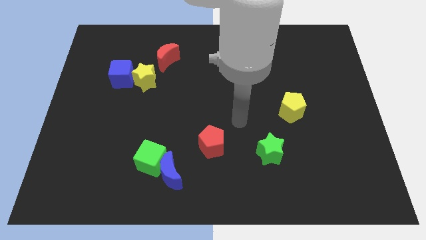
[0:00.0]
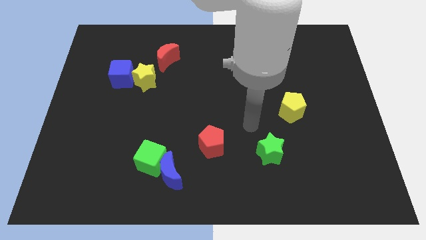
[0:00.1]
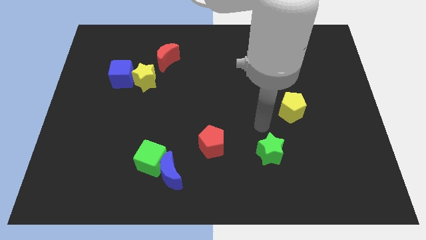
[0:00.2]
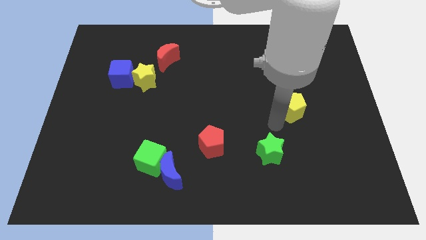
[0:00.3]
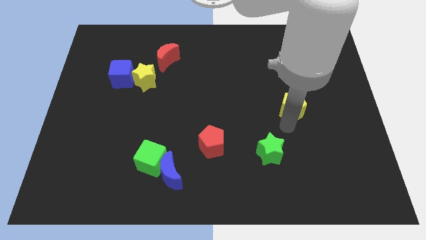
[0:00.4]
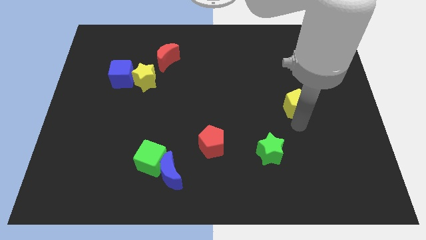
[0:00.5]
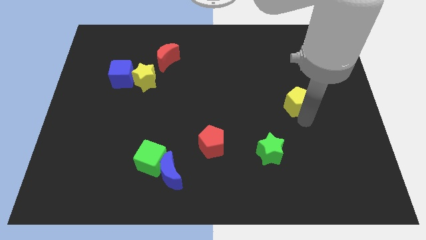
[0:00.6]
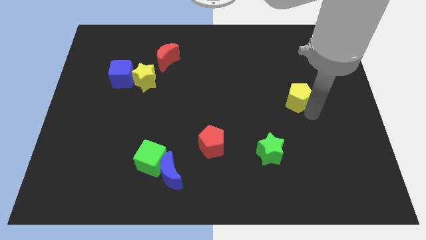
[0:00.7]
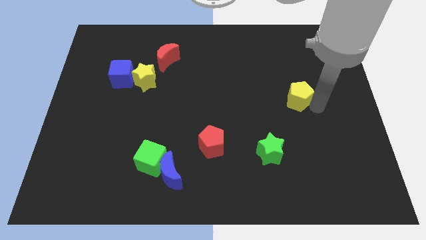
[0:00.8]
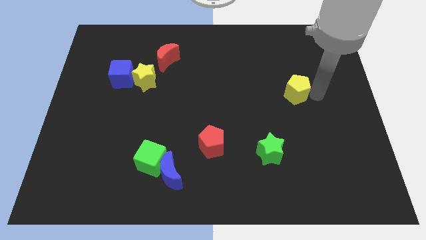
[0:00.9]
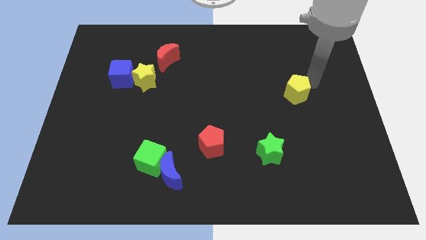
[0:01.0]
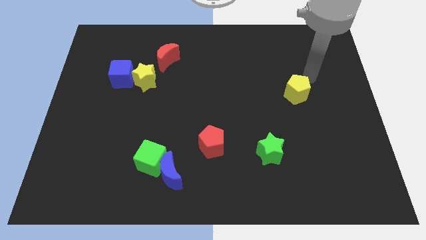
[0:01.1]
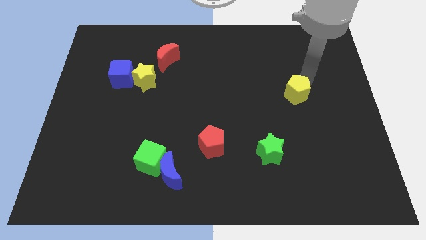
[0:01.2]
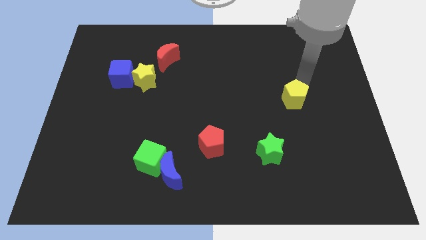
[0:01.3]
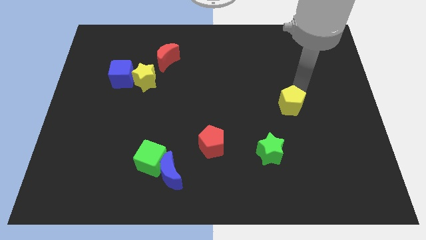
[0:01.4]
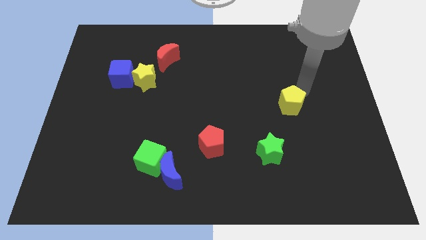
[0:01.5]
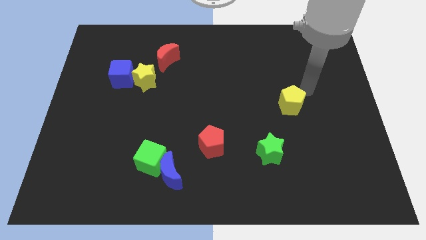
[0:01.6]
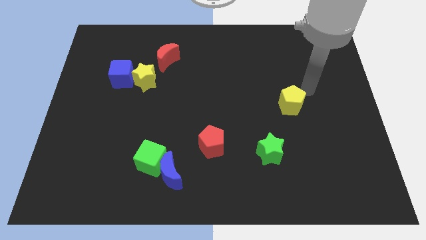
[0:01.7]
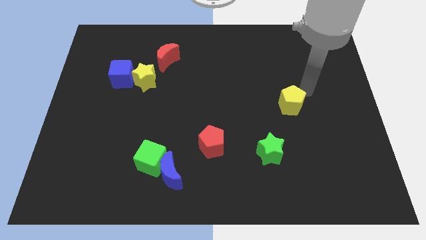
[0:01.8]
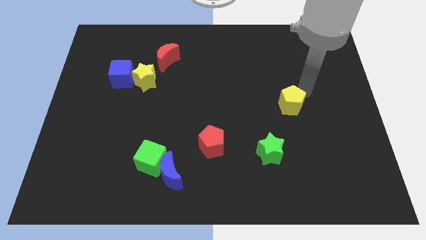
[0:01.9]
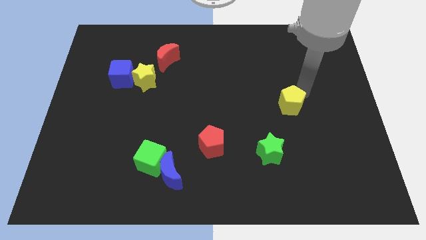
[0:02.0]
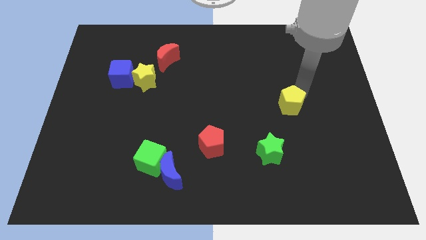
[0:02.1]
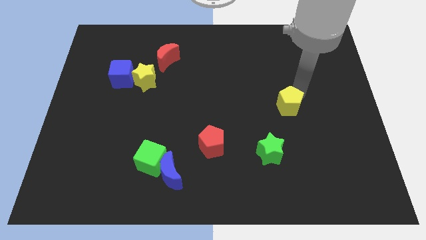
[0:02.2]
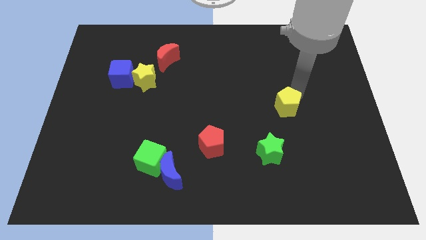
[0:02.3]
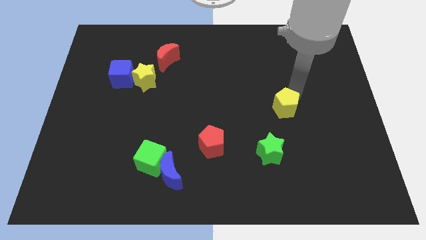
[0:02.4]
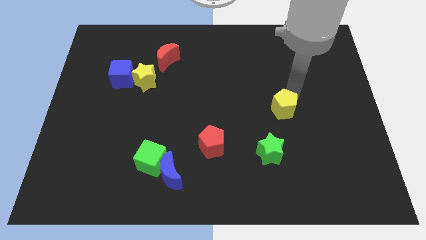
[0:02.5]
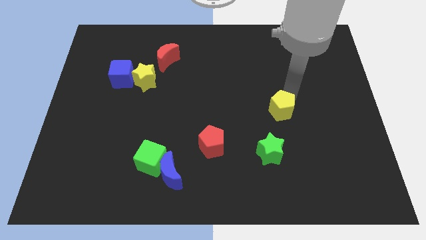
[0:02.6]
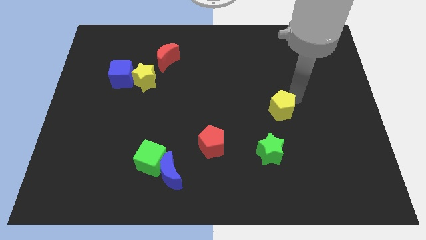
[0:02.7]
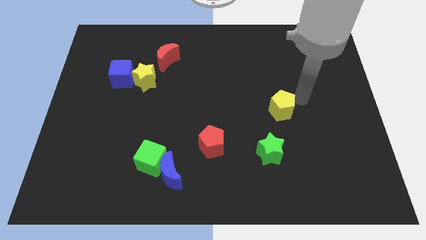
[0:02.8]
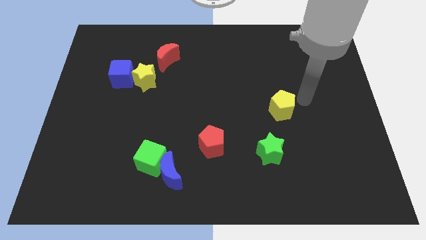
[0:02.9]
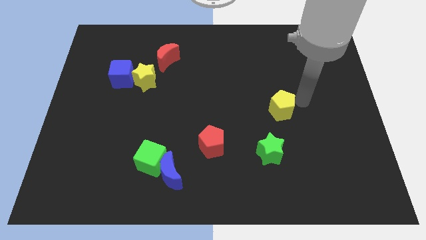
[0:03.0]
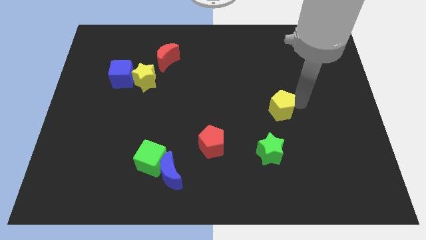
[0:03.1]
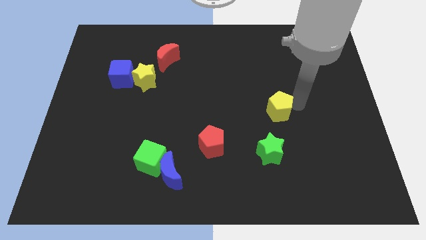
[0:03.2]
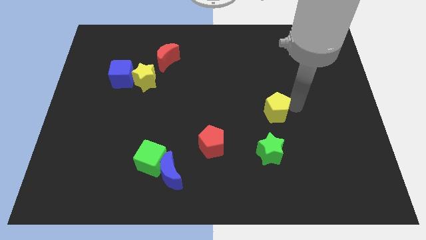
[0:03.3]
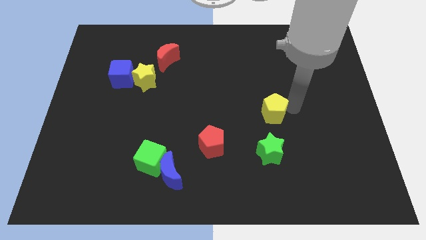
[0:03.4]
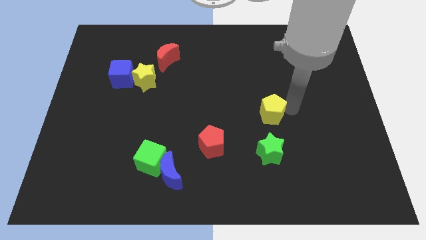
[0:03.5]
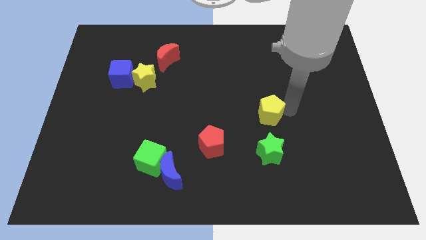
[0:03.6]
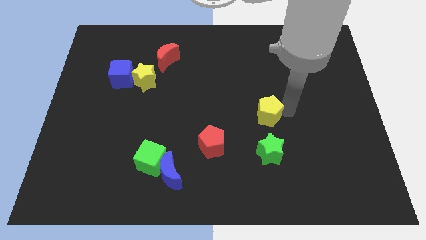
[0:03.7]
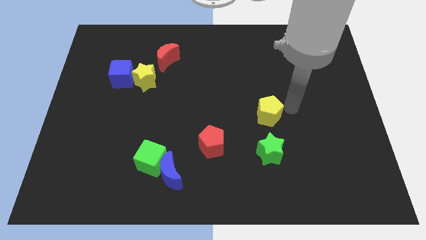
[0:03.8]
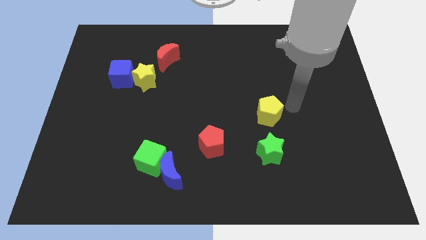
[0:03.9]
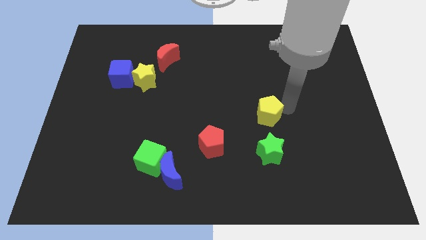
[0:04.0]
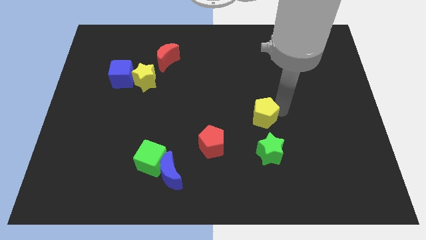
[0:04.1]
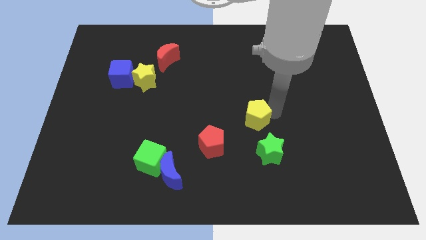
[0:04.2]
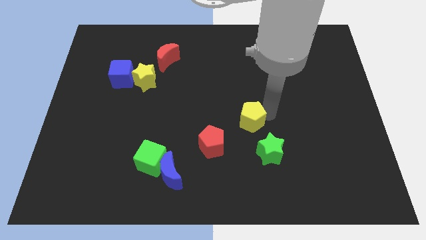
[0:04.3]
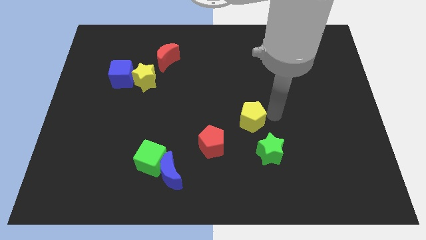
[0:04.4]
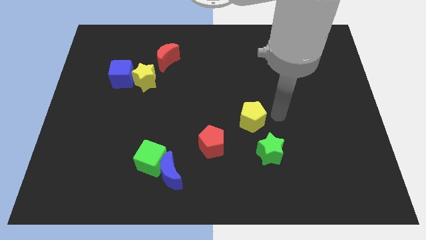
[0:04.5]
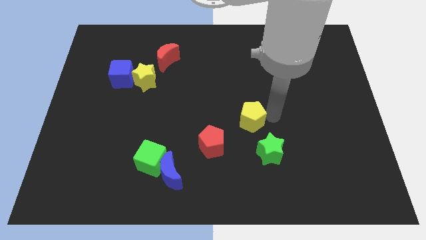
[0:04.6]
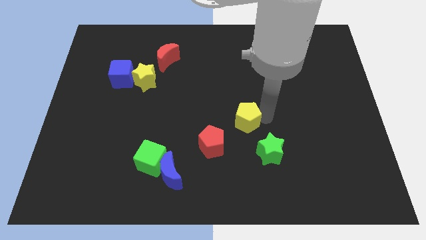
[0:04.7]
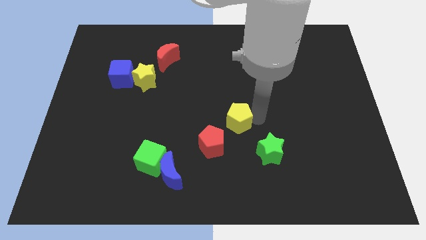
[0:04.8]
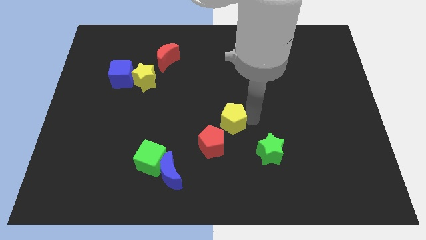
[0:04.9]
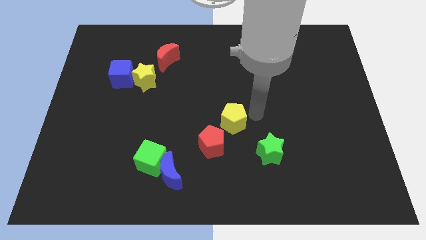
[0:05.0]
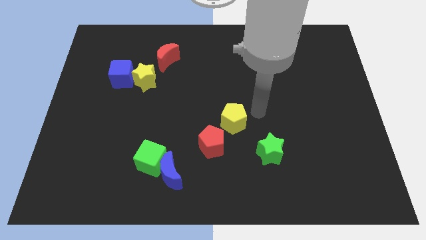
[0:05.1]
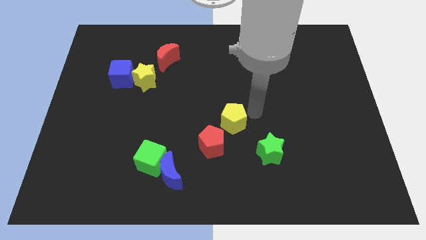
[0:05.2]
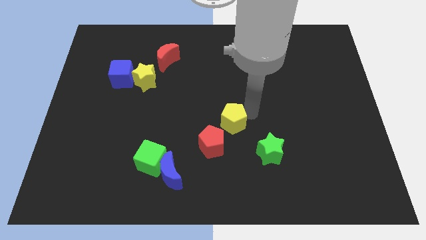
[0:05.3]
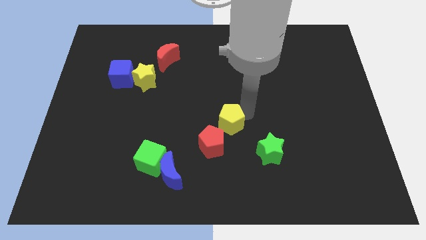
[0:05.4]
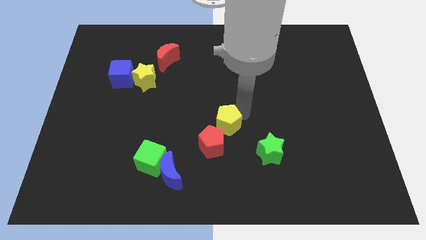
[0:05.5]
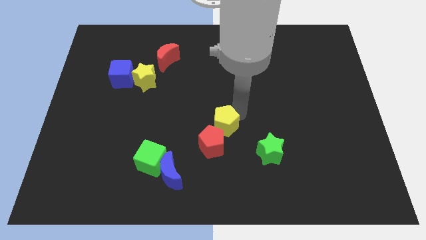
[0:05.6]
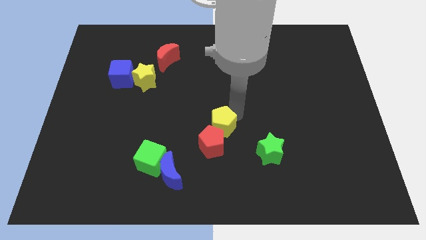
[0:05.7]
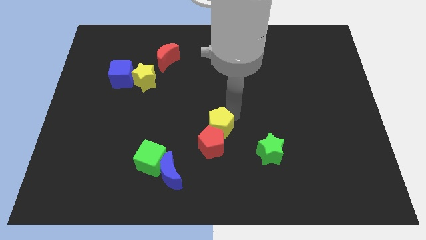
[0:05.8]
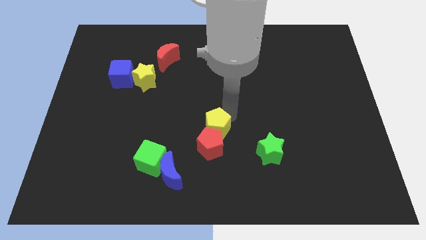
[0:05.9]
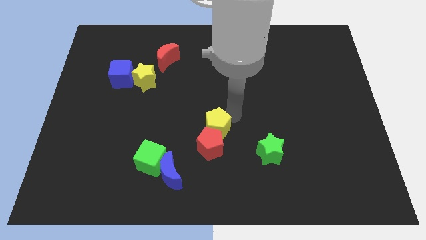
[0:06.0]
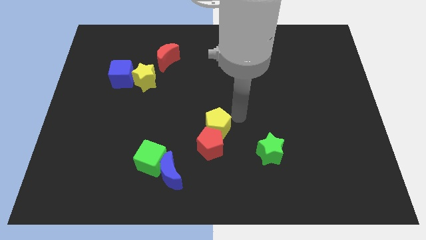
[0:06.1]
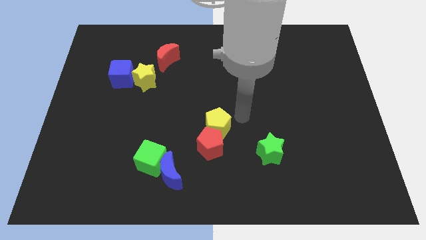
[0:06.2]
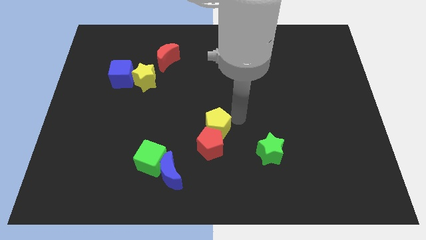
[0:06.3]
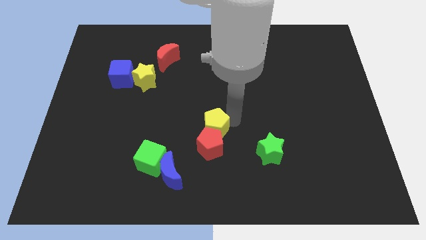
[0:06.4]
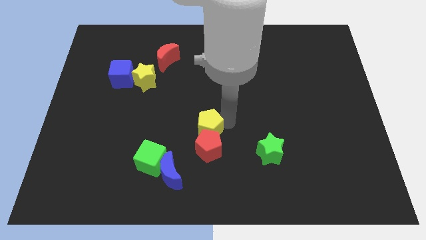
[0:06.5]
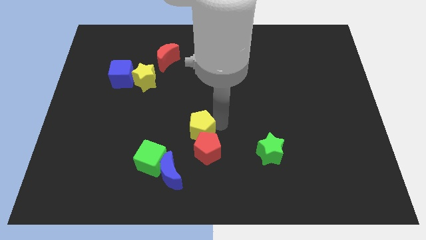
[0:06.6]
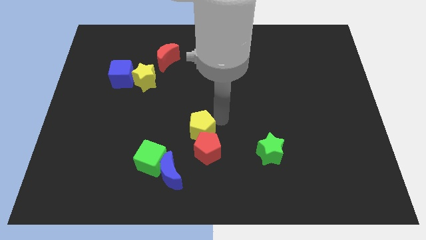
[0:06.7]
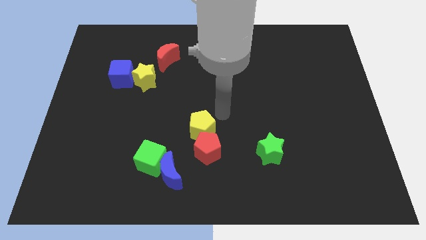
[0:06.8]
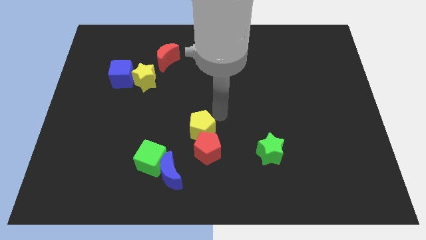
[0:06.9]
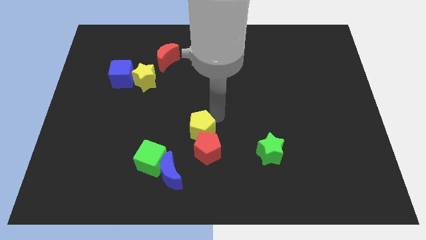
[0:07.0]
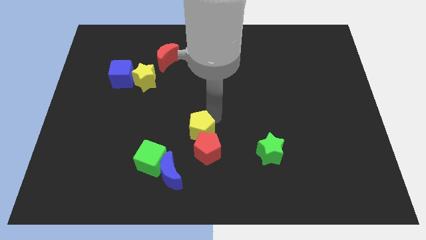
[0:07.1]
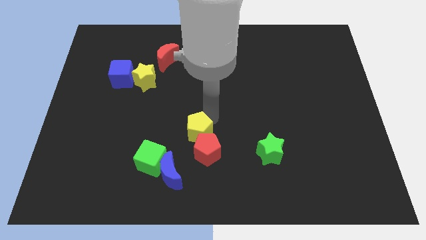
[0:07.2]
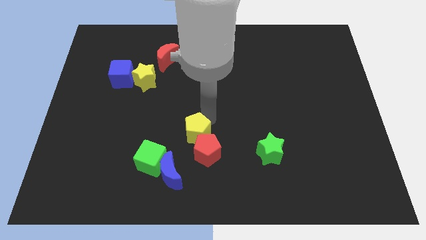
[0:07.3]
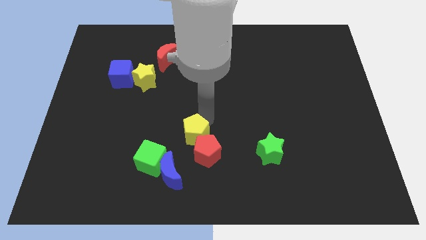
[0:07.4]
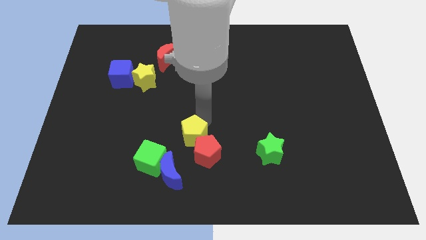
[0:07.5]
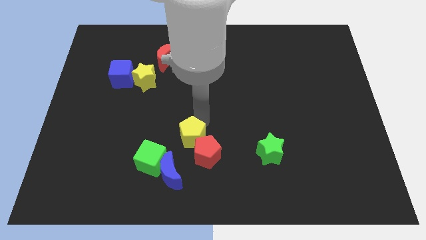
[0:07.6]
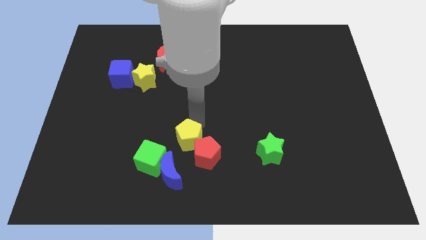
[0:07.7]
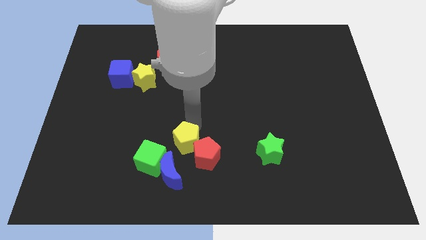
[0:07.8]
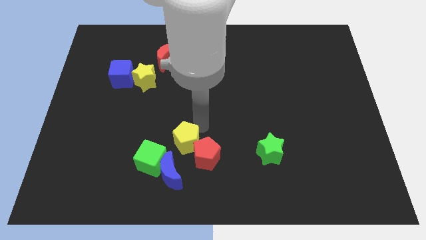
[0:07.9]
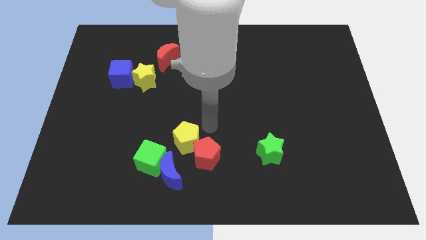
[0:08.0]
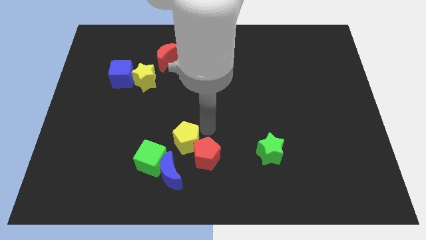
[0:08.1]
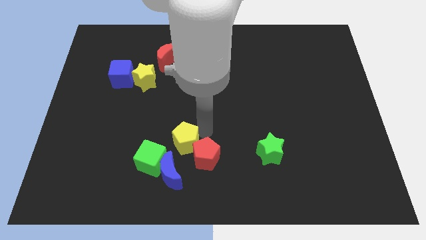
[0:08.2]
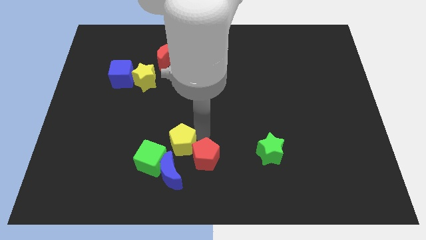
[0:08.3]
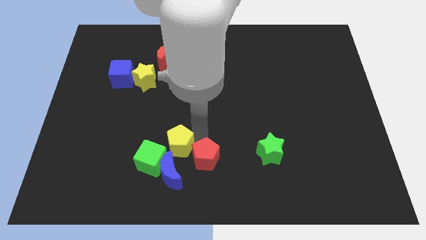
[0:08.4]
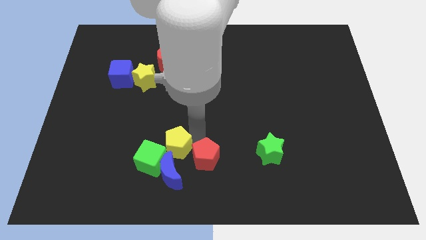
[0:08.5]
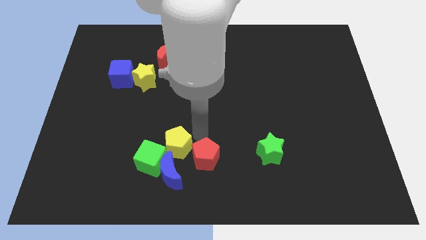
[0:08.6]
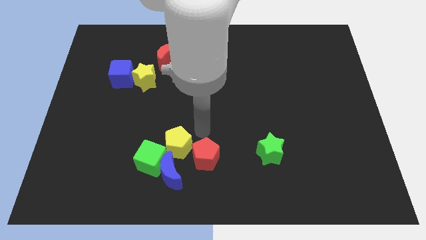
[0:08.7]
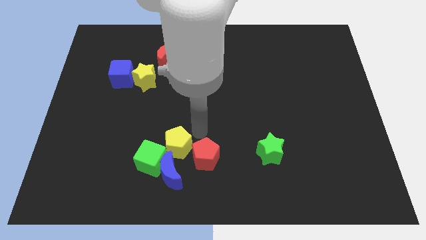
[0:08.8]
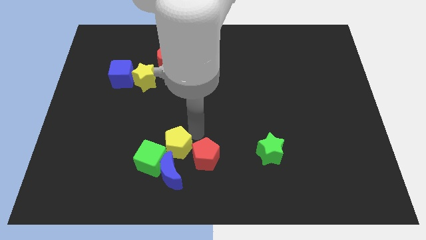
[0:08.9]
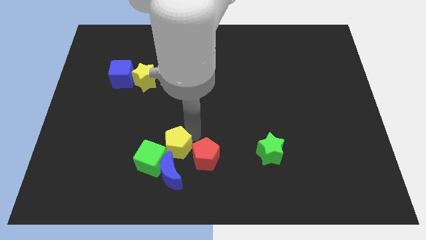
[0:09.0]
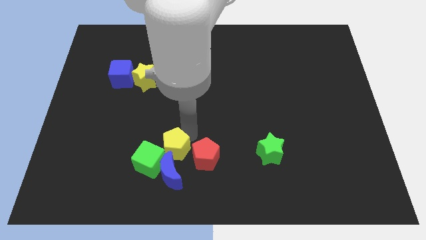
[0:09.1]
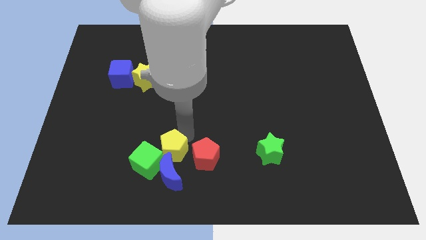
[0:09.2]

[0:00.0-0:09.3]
push the yellow pentagon next to the green cube
